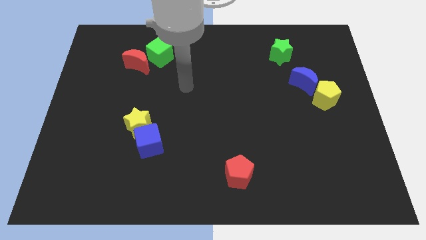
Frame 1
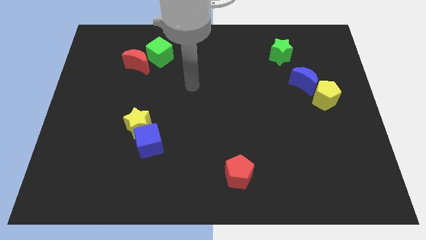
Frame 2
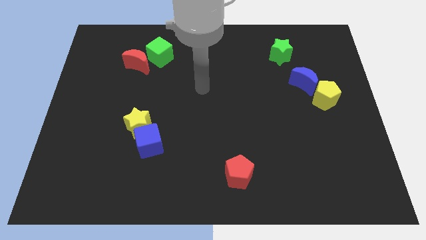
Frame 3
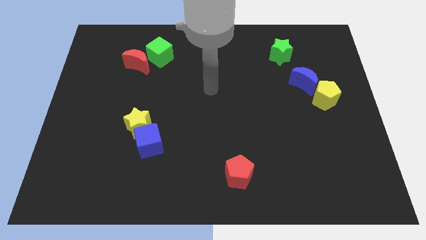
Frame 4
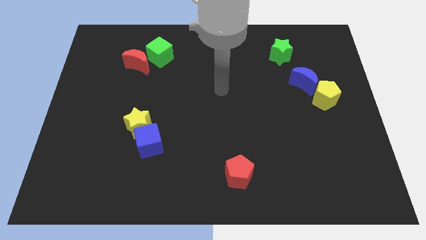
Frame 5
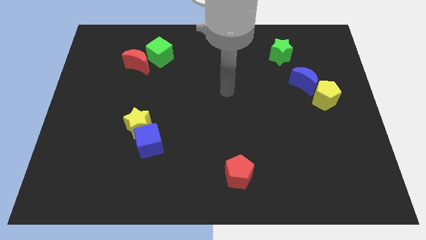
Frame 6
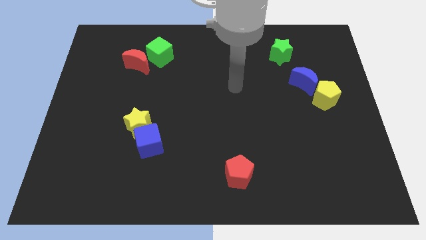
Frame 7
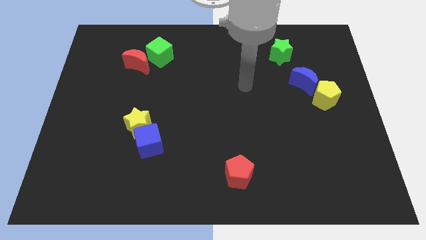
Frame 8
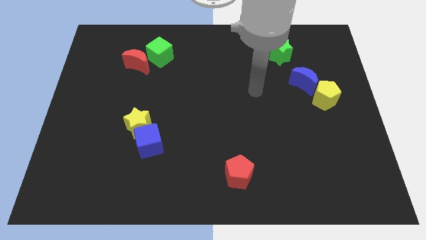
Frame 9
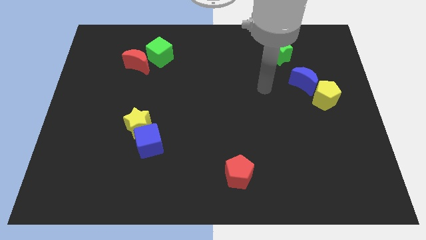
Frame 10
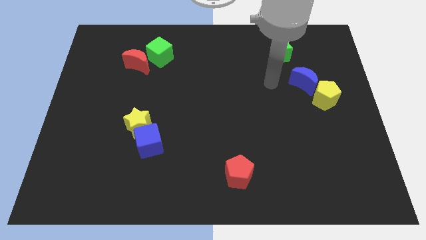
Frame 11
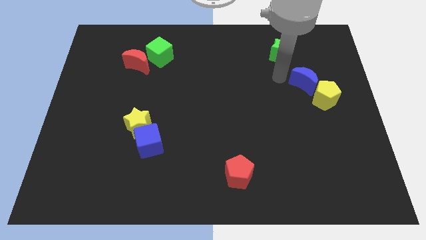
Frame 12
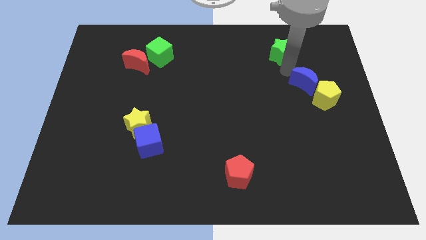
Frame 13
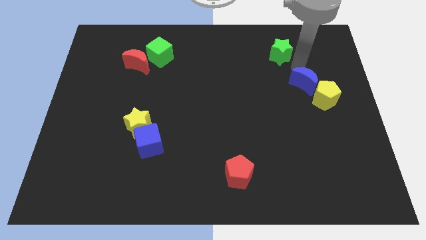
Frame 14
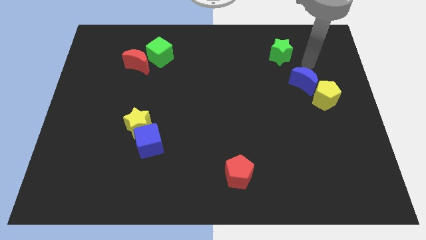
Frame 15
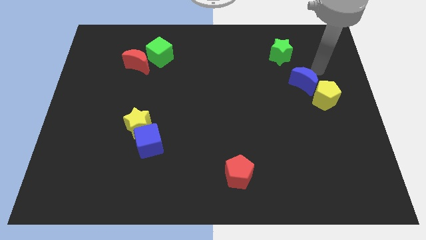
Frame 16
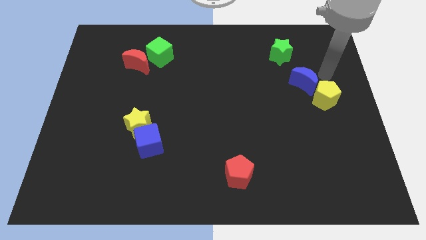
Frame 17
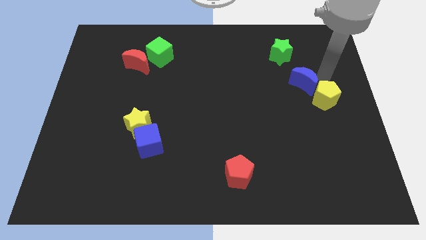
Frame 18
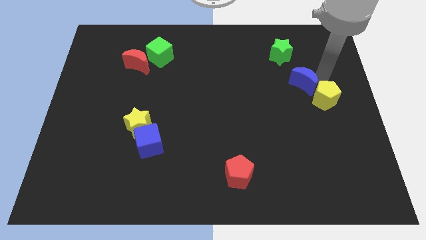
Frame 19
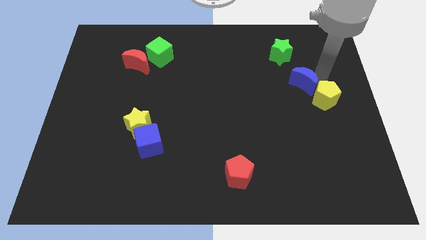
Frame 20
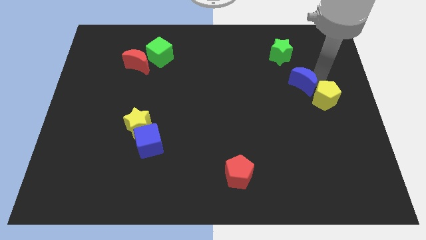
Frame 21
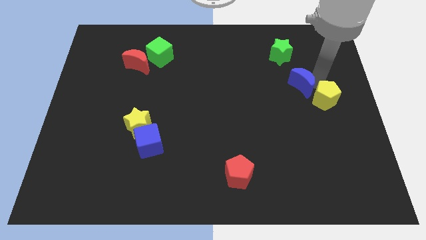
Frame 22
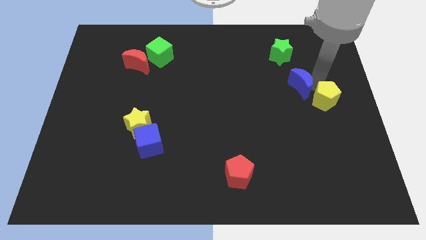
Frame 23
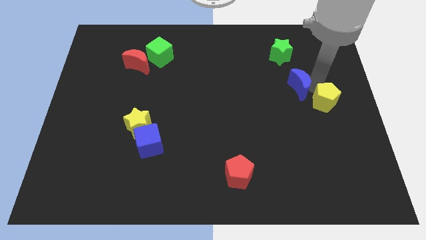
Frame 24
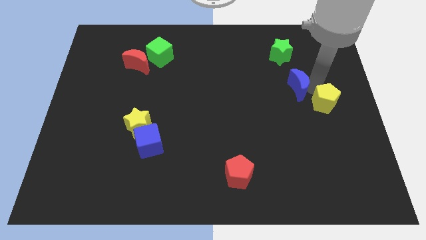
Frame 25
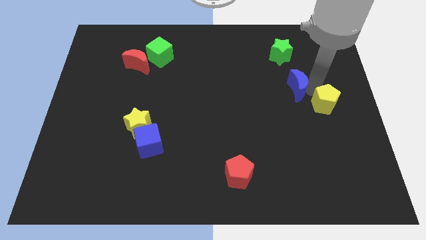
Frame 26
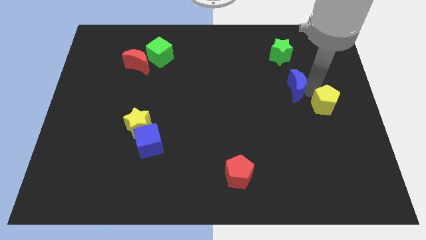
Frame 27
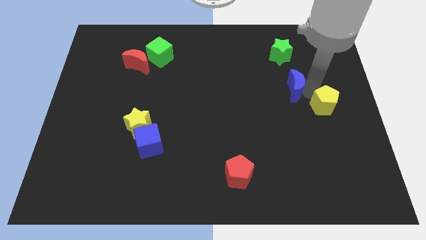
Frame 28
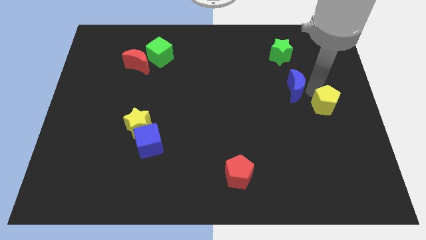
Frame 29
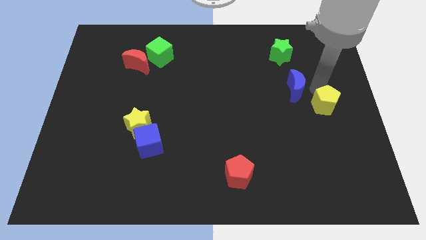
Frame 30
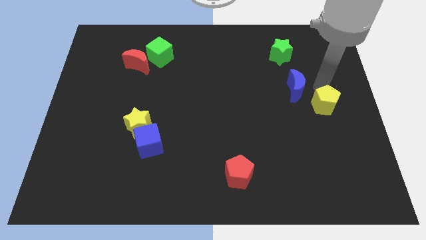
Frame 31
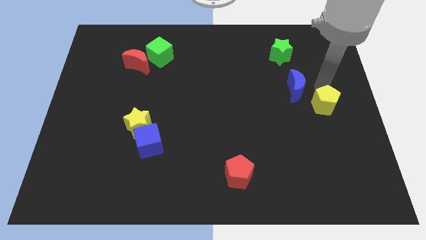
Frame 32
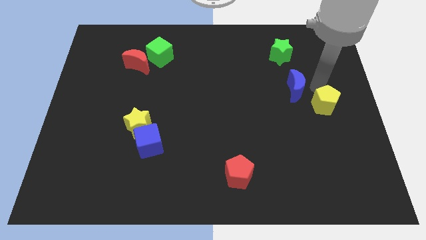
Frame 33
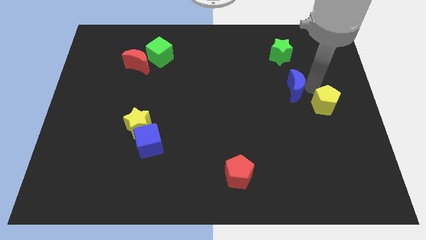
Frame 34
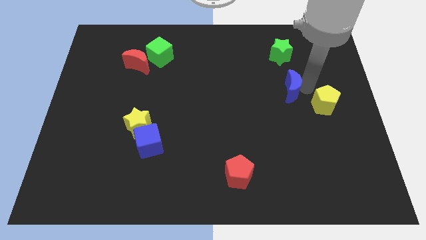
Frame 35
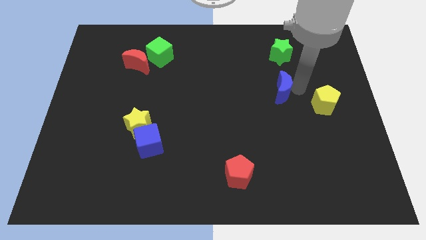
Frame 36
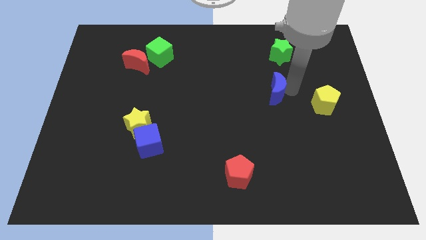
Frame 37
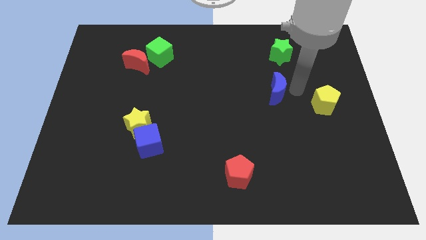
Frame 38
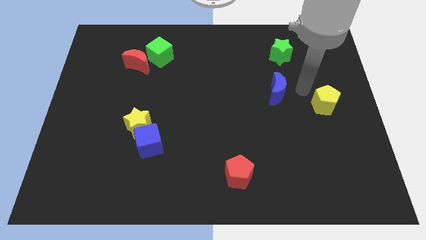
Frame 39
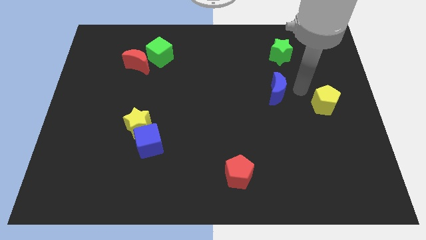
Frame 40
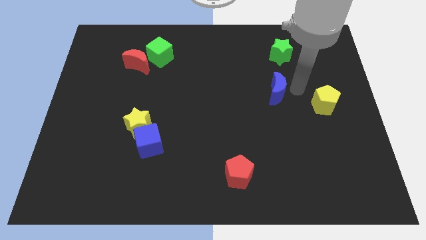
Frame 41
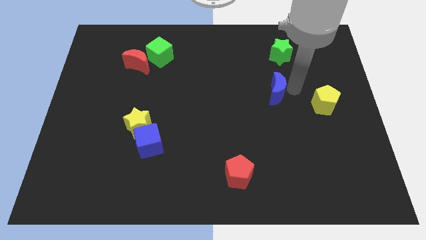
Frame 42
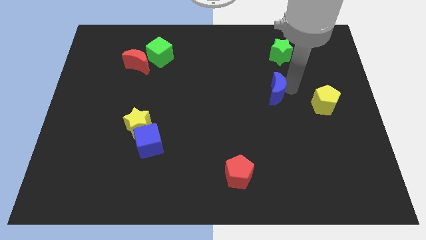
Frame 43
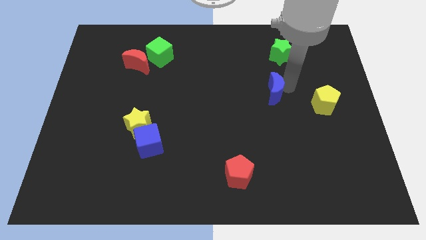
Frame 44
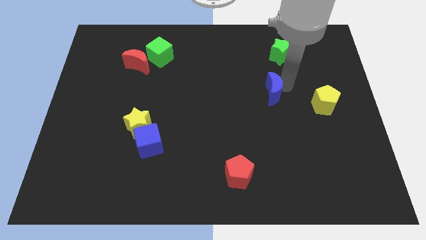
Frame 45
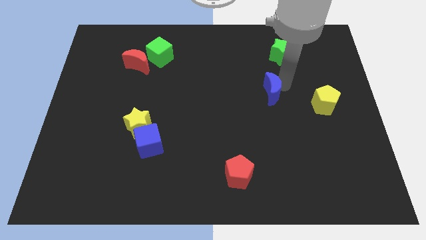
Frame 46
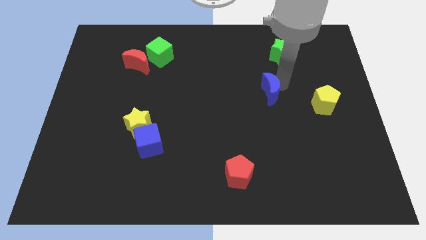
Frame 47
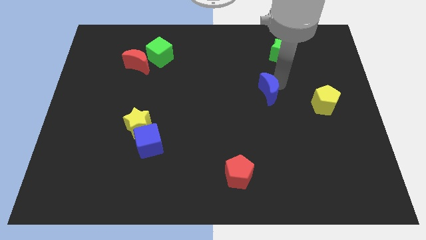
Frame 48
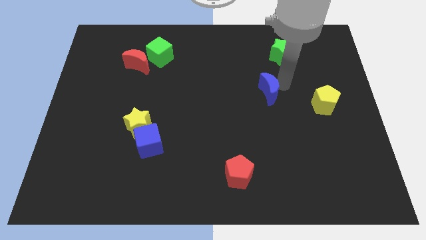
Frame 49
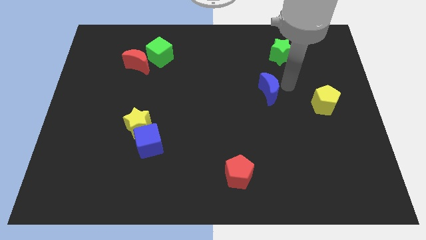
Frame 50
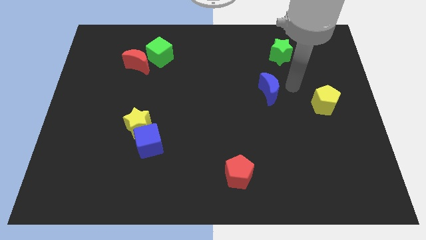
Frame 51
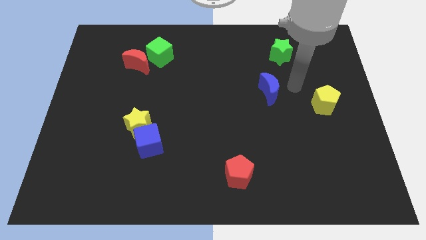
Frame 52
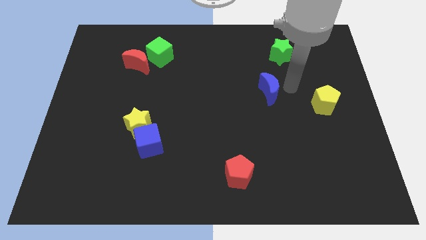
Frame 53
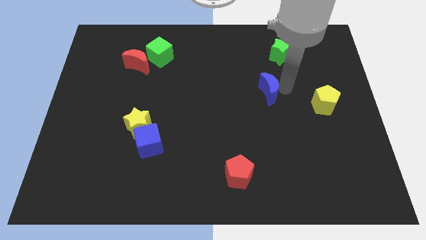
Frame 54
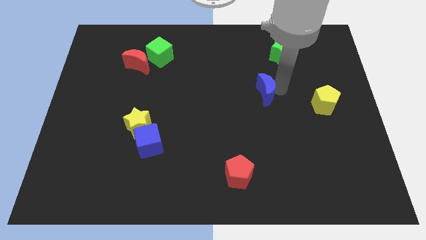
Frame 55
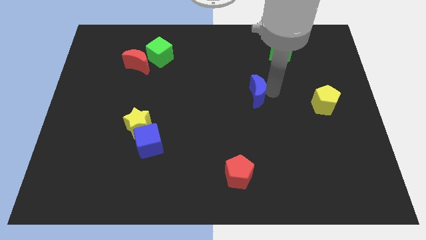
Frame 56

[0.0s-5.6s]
put the blue moon to the middle of the board

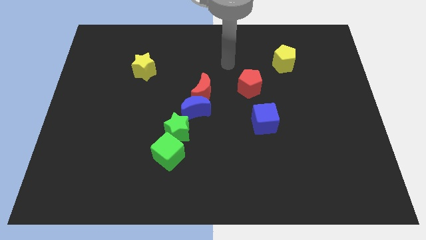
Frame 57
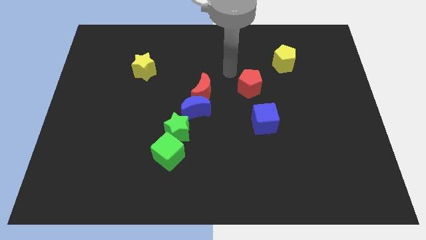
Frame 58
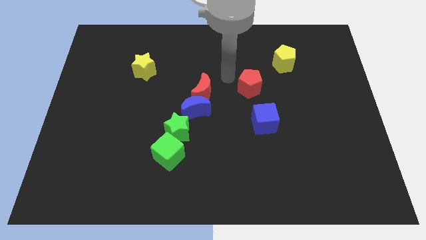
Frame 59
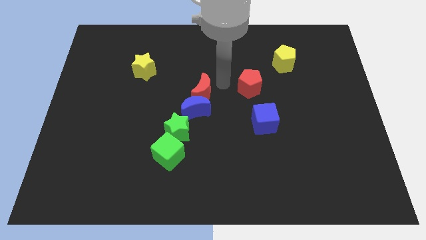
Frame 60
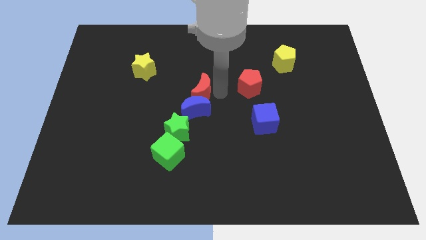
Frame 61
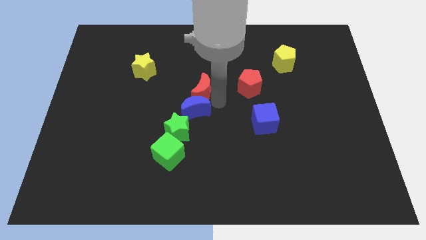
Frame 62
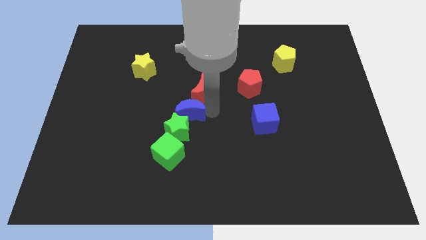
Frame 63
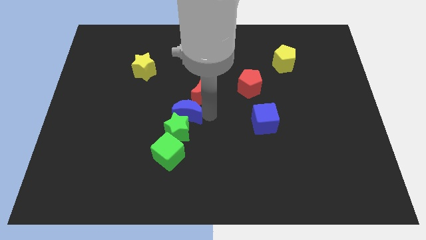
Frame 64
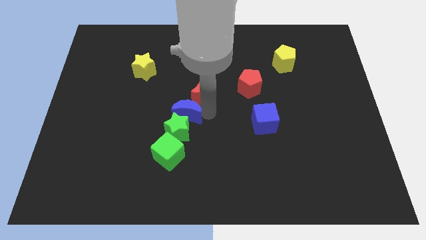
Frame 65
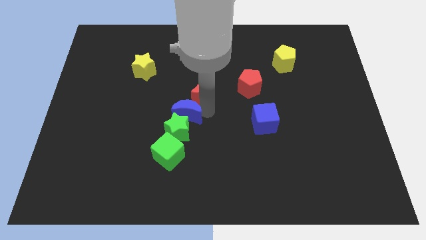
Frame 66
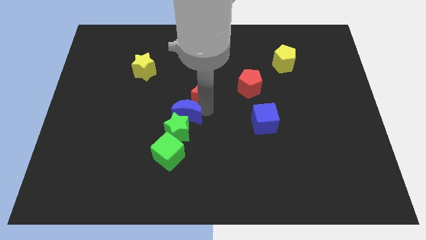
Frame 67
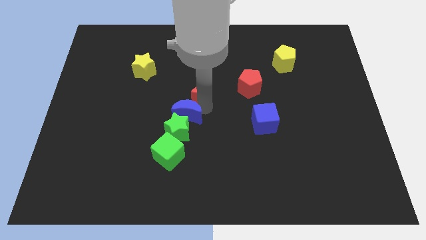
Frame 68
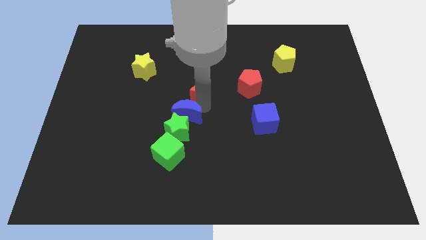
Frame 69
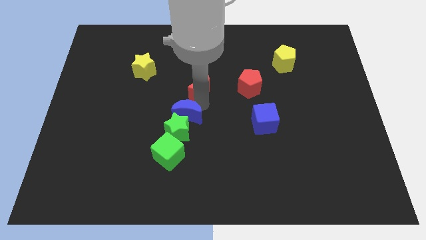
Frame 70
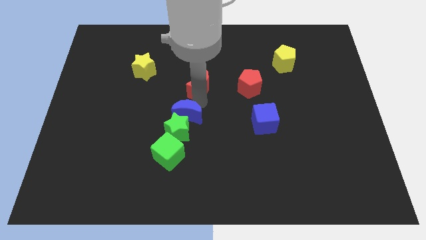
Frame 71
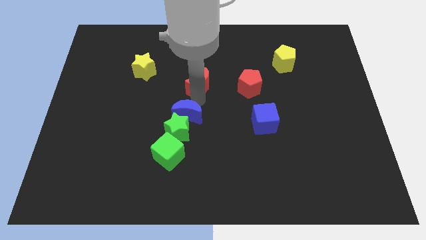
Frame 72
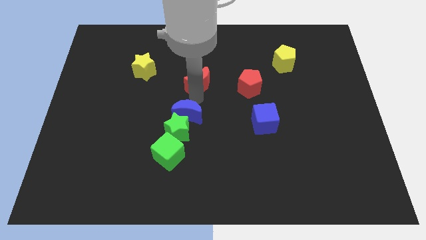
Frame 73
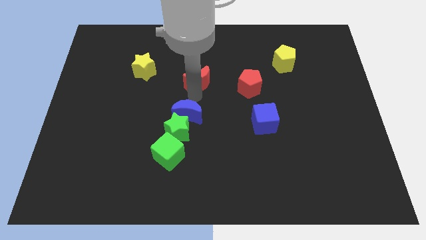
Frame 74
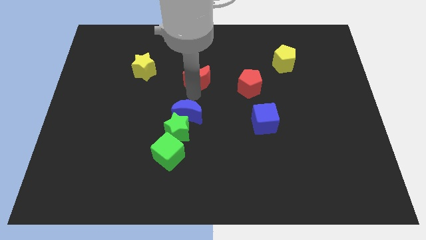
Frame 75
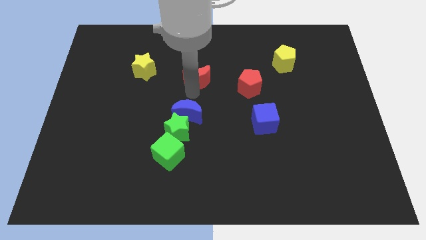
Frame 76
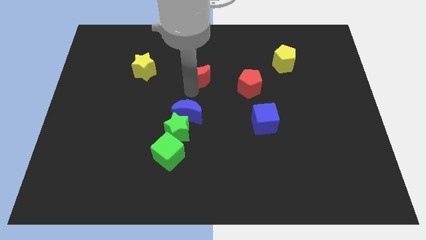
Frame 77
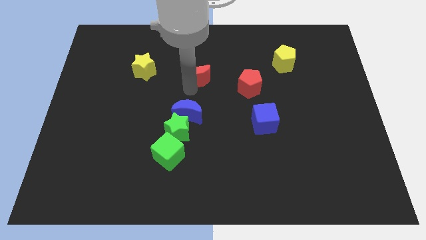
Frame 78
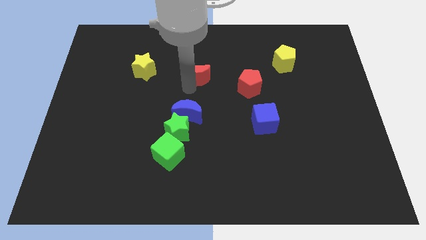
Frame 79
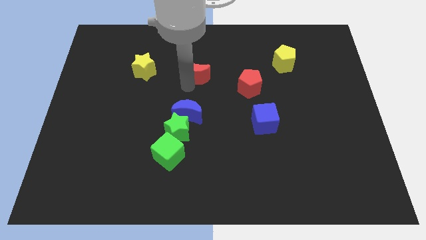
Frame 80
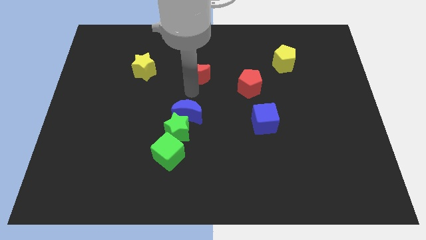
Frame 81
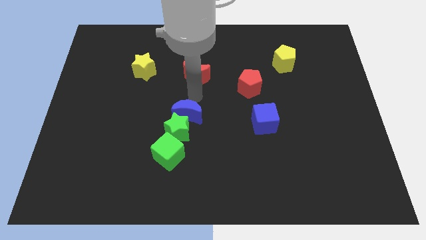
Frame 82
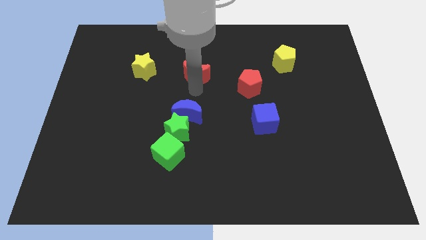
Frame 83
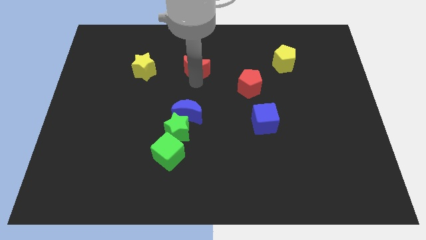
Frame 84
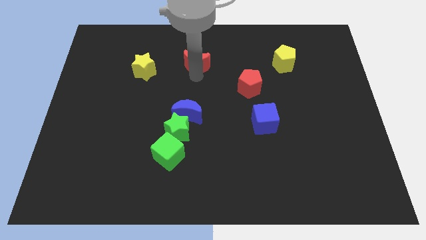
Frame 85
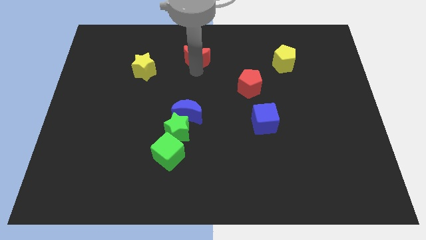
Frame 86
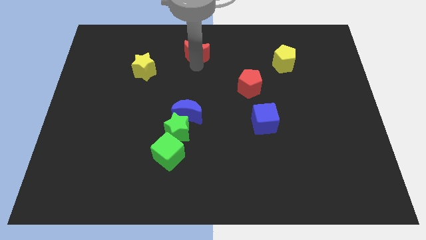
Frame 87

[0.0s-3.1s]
move the red moon to the towards your base
